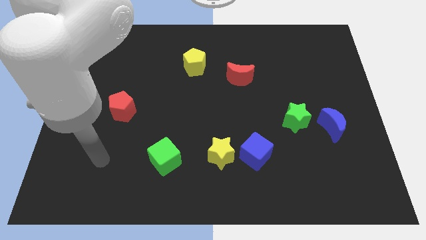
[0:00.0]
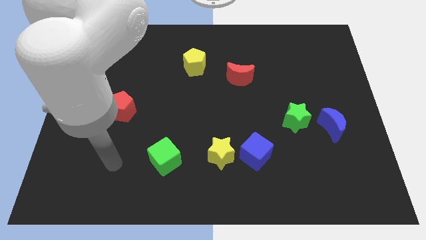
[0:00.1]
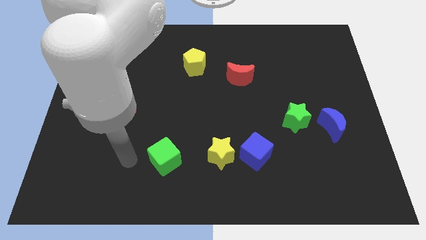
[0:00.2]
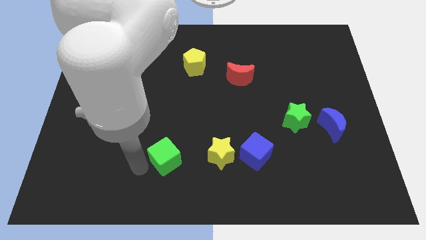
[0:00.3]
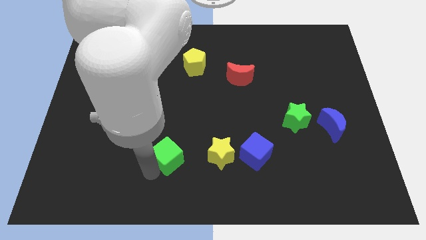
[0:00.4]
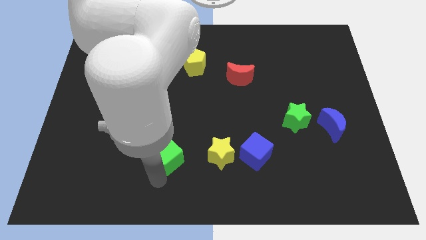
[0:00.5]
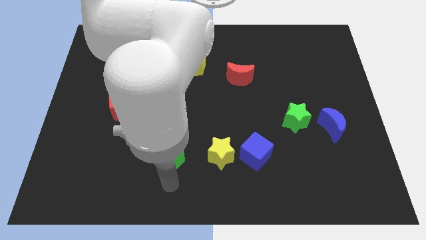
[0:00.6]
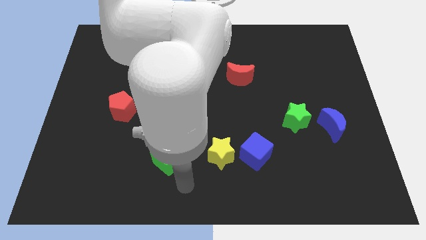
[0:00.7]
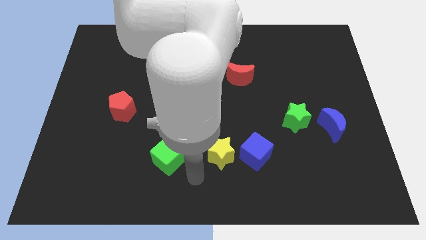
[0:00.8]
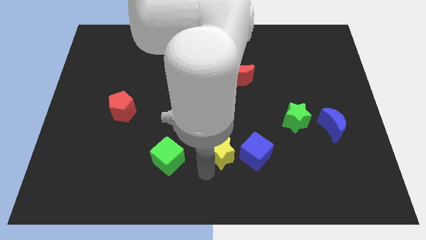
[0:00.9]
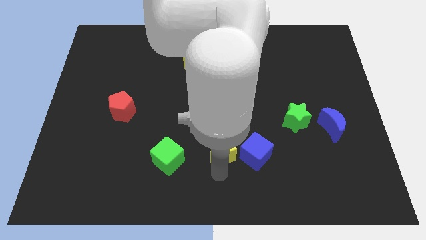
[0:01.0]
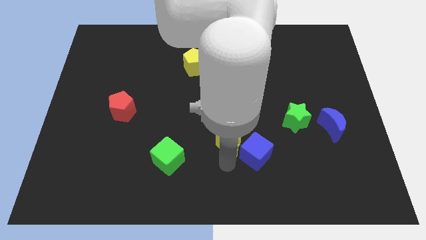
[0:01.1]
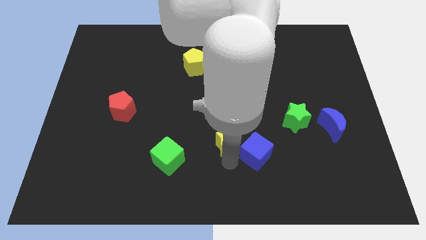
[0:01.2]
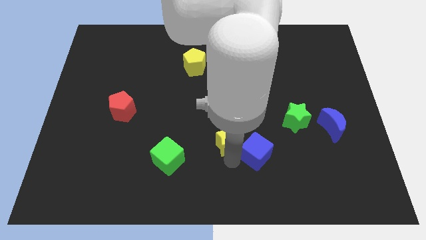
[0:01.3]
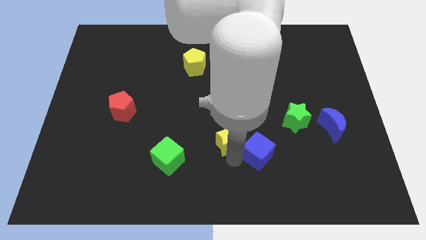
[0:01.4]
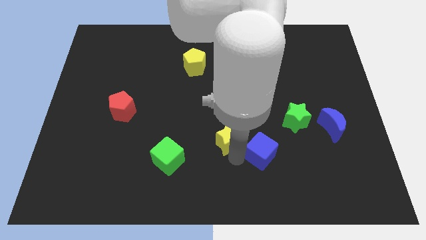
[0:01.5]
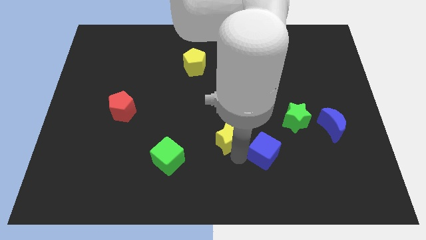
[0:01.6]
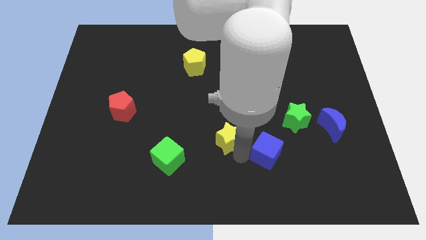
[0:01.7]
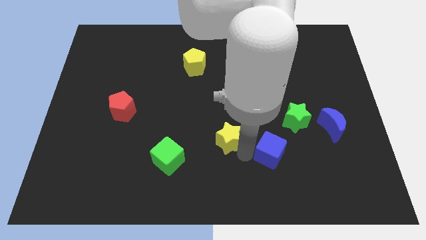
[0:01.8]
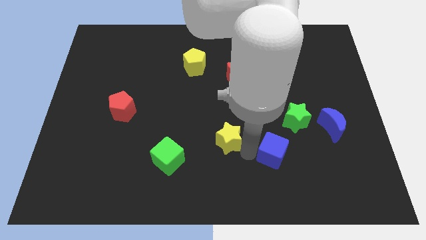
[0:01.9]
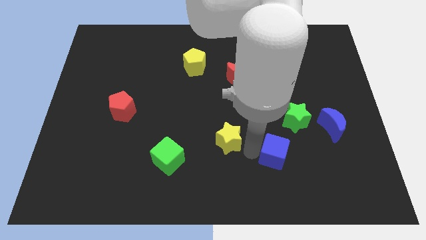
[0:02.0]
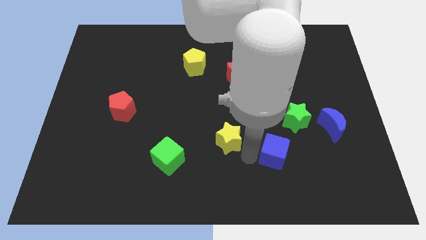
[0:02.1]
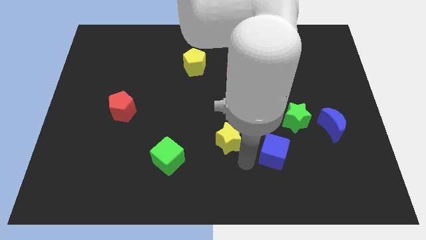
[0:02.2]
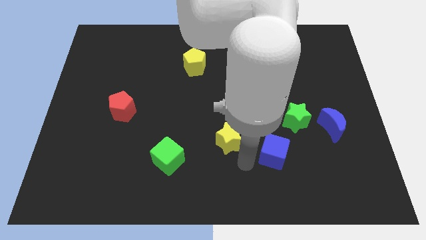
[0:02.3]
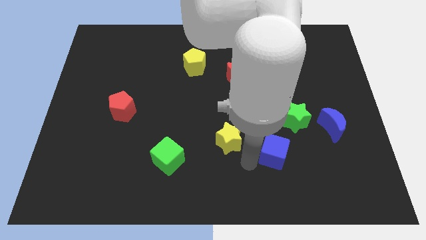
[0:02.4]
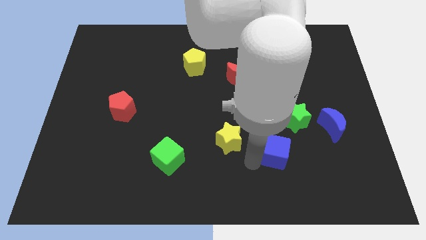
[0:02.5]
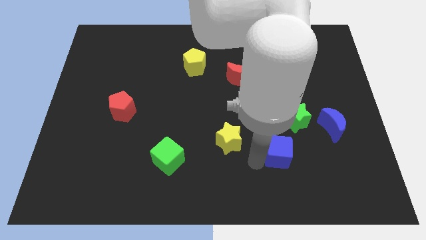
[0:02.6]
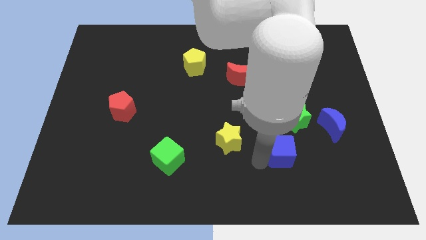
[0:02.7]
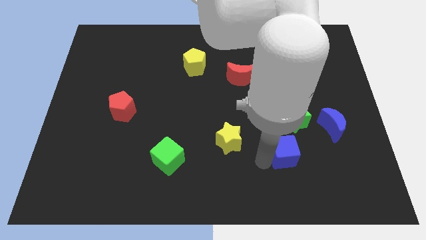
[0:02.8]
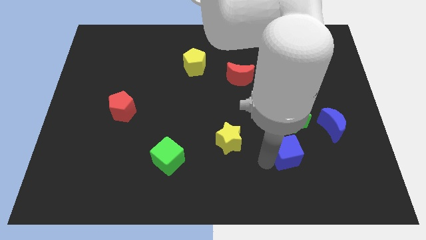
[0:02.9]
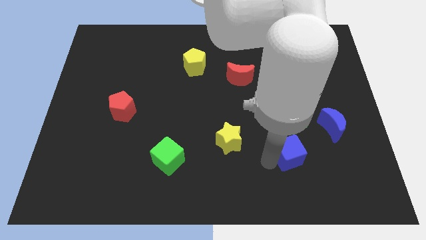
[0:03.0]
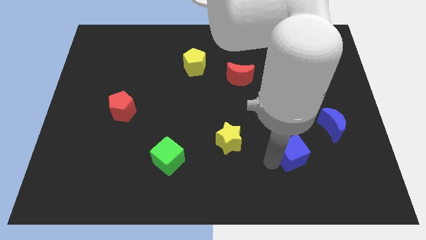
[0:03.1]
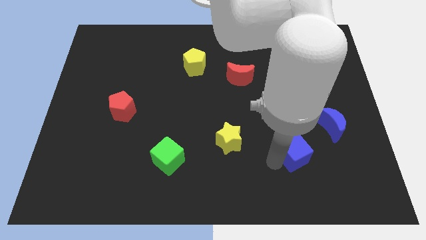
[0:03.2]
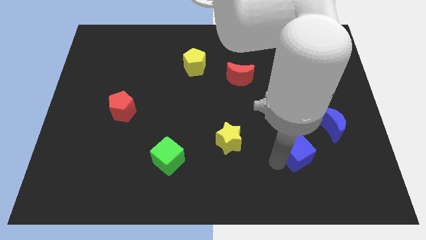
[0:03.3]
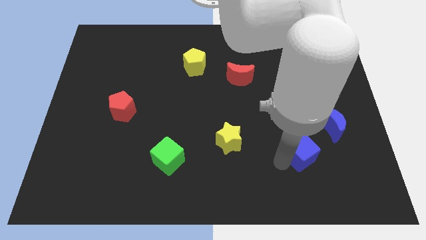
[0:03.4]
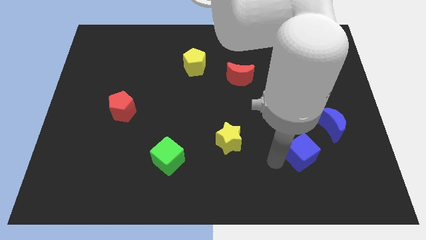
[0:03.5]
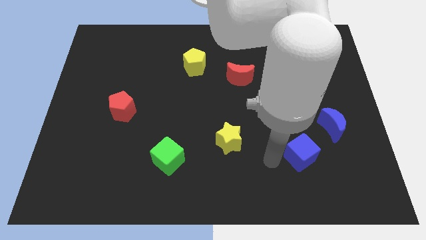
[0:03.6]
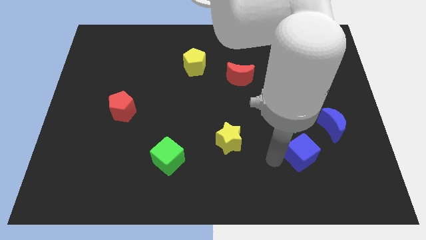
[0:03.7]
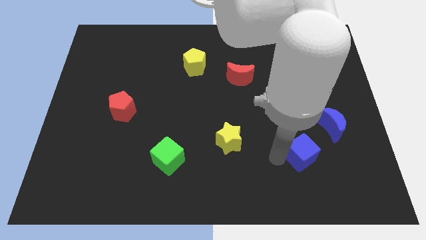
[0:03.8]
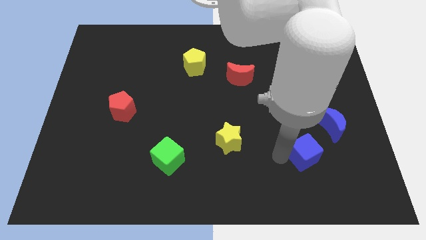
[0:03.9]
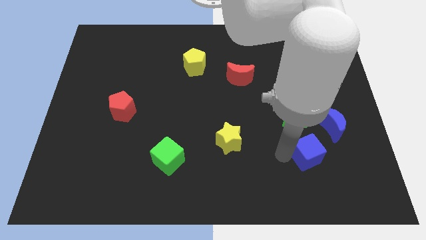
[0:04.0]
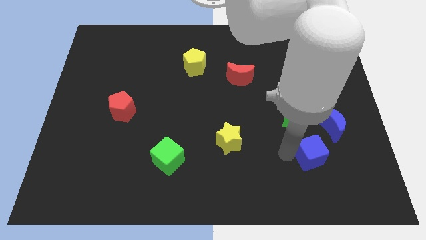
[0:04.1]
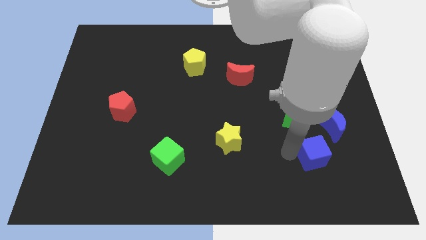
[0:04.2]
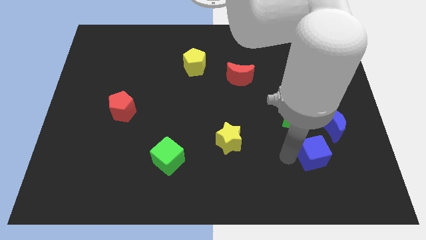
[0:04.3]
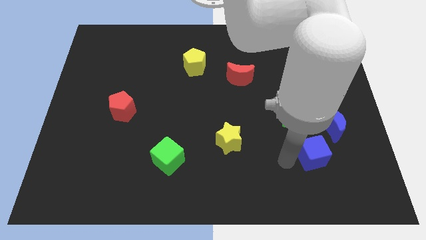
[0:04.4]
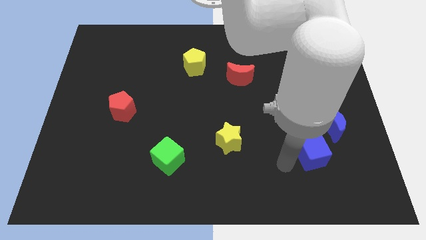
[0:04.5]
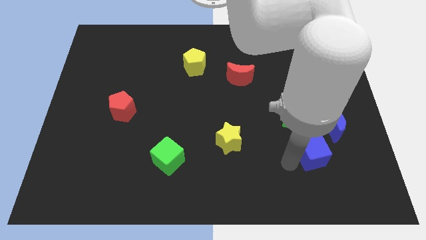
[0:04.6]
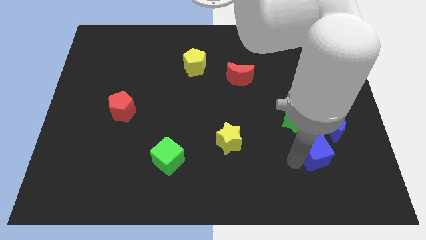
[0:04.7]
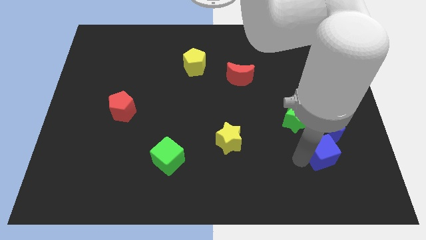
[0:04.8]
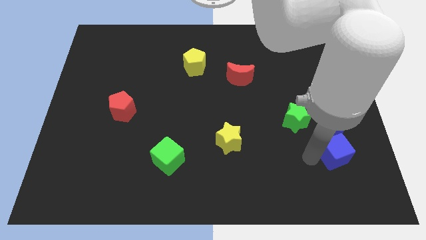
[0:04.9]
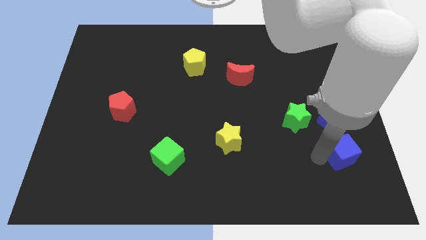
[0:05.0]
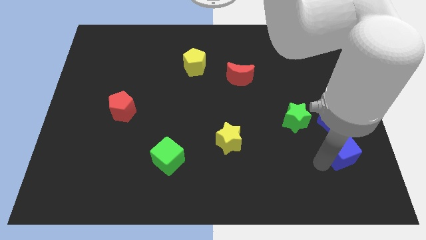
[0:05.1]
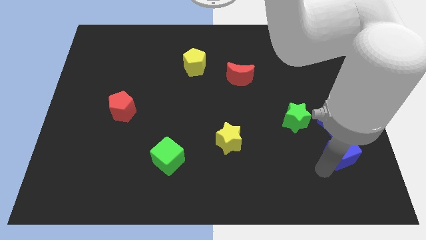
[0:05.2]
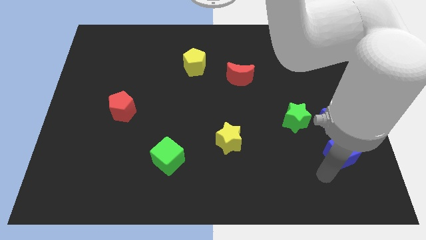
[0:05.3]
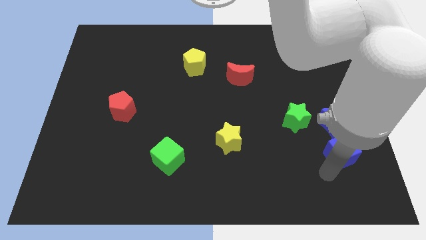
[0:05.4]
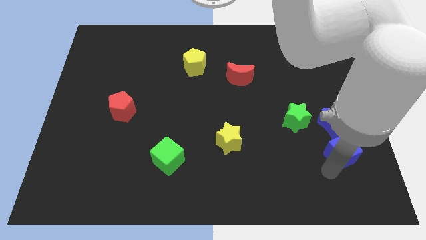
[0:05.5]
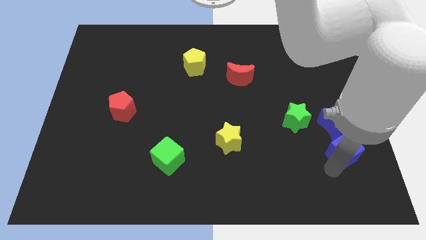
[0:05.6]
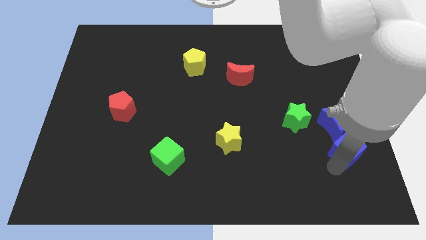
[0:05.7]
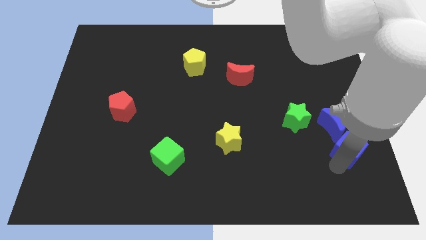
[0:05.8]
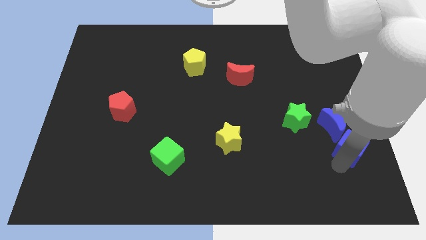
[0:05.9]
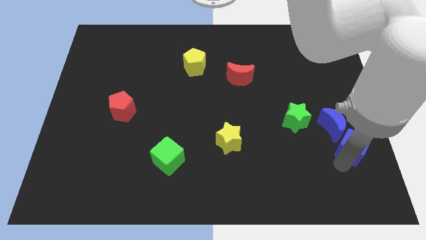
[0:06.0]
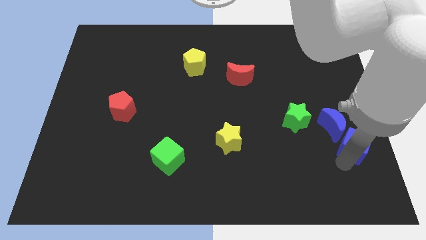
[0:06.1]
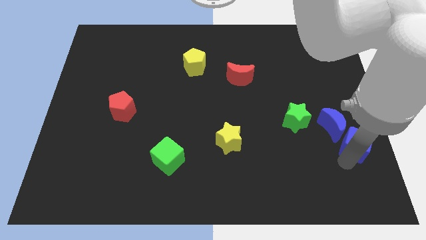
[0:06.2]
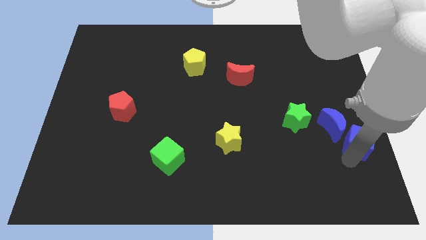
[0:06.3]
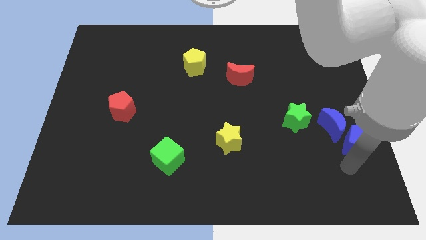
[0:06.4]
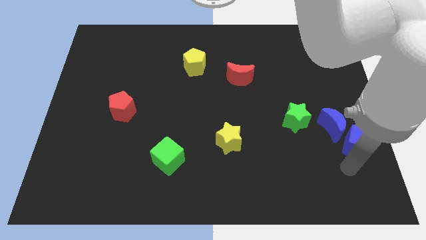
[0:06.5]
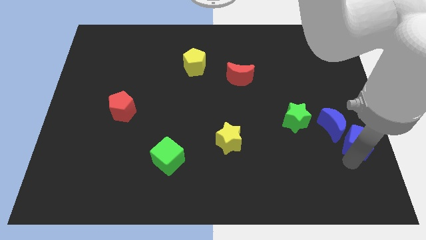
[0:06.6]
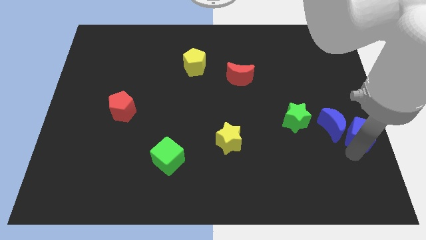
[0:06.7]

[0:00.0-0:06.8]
push the blue cube to the right side of the board

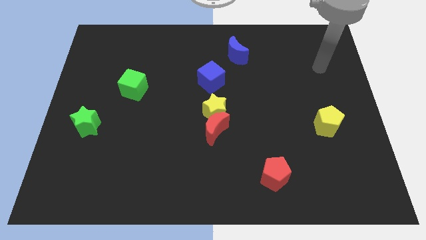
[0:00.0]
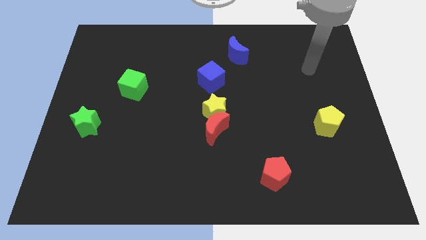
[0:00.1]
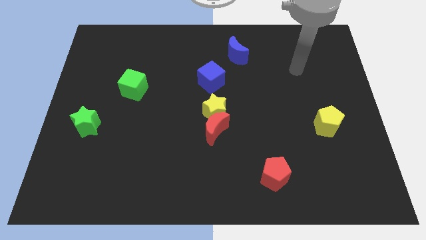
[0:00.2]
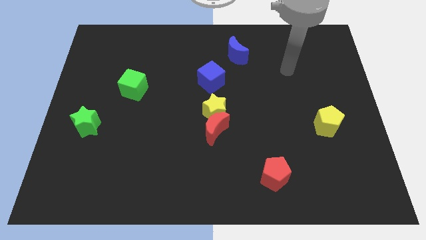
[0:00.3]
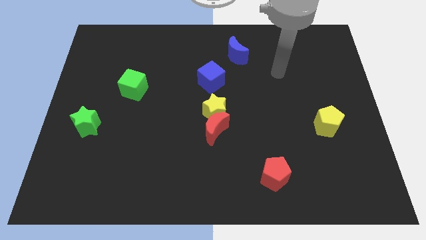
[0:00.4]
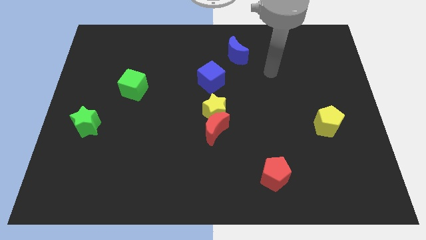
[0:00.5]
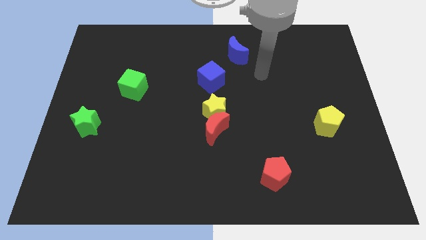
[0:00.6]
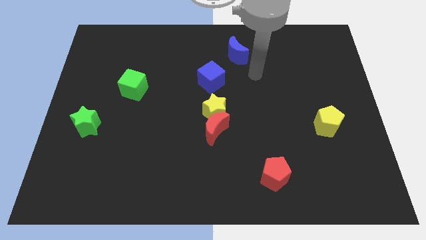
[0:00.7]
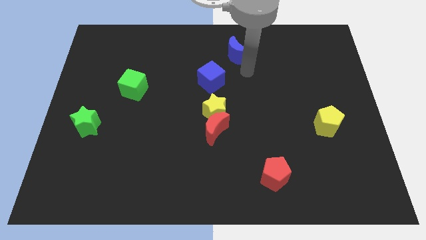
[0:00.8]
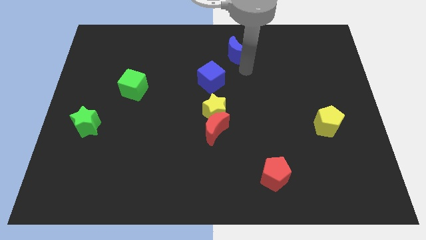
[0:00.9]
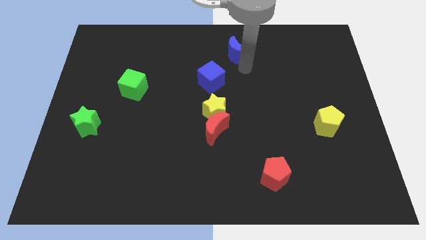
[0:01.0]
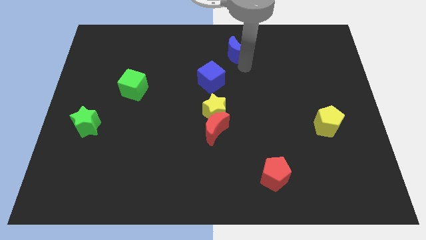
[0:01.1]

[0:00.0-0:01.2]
push the blue moon to the top
